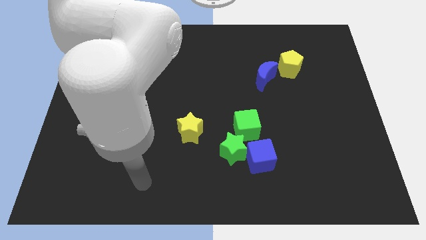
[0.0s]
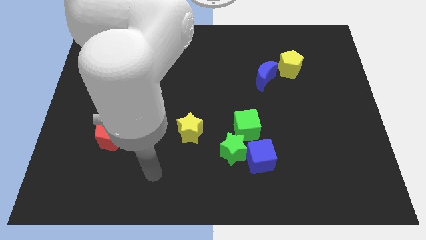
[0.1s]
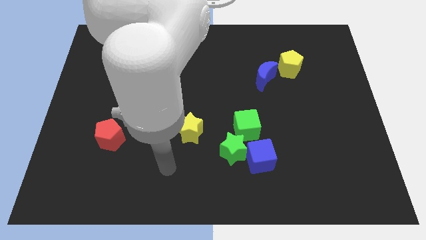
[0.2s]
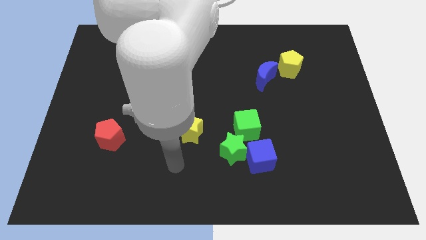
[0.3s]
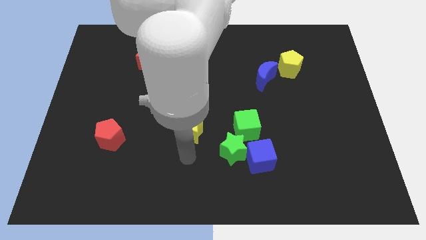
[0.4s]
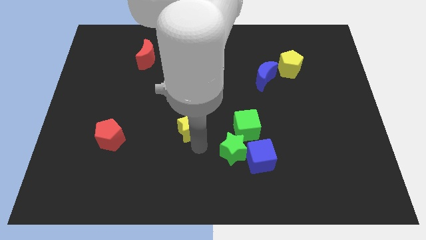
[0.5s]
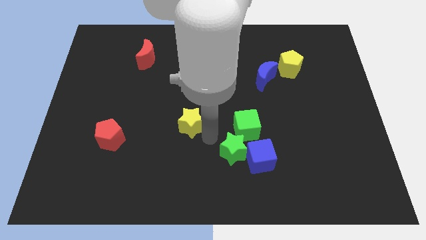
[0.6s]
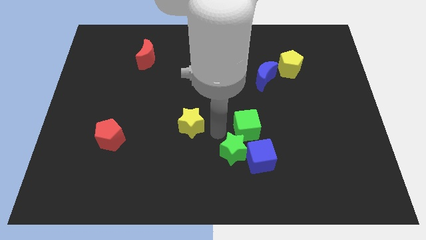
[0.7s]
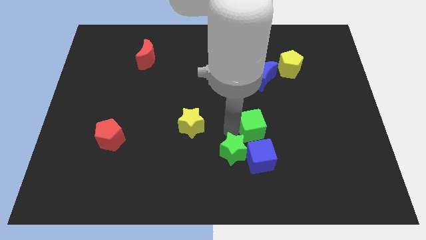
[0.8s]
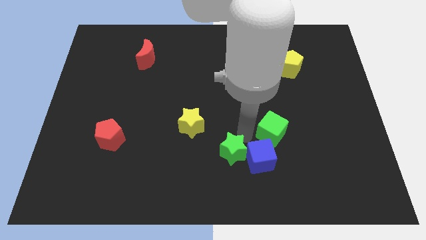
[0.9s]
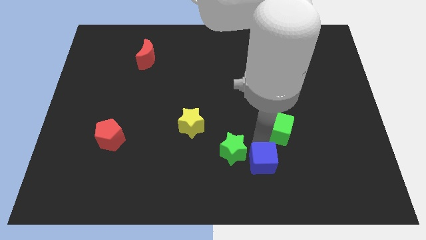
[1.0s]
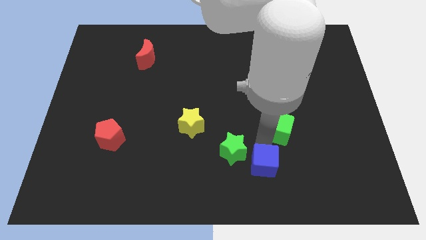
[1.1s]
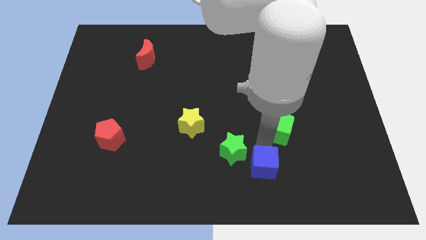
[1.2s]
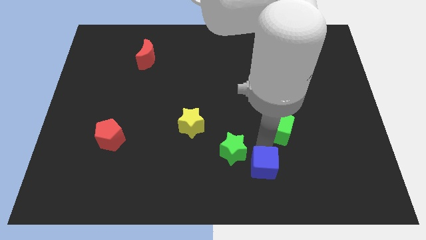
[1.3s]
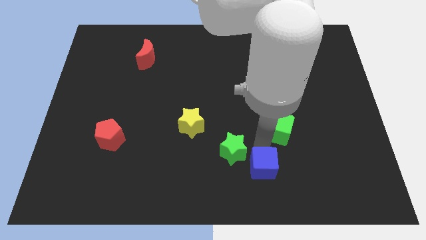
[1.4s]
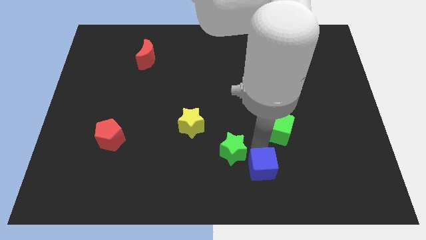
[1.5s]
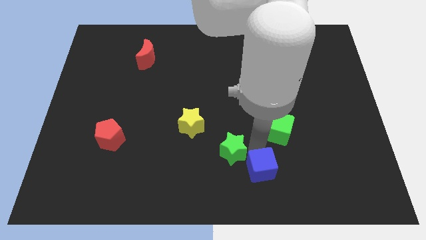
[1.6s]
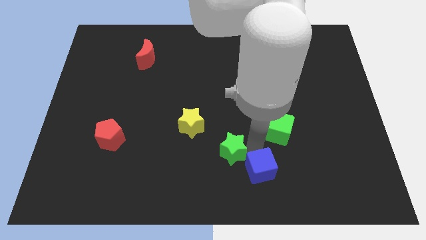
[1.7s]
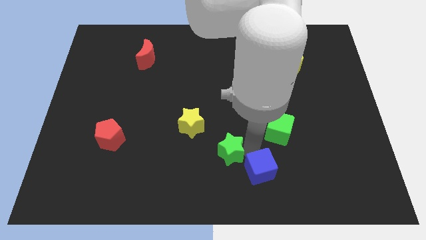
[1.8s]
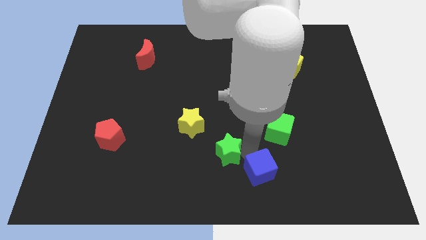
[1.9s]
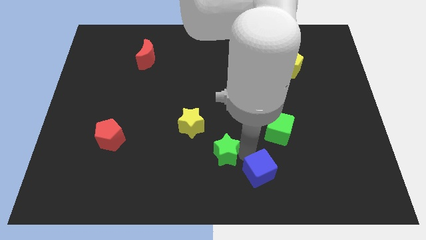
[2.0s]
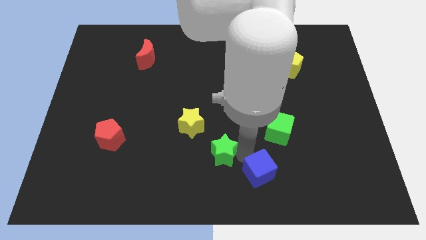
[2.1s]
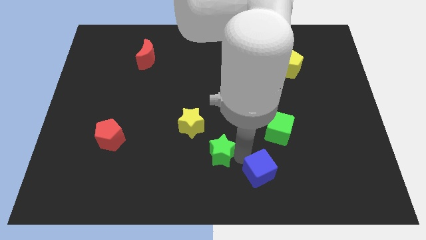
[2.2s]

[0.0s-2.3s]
pull the green star apart from the blue cube and green cube

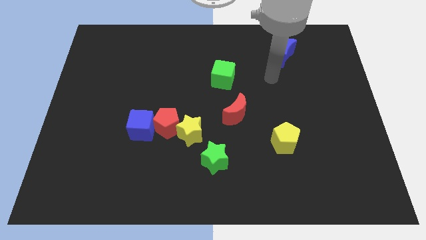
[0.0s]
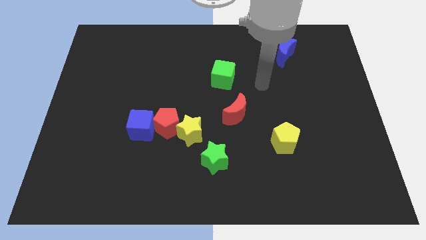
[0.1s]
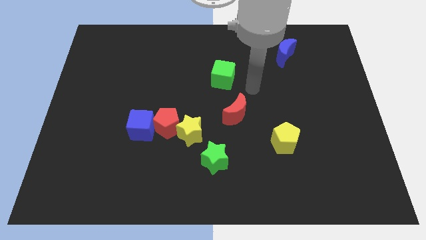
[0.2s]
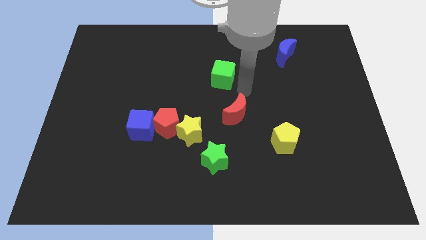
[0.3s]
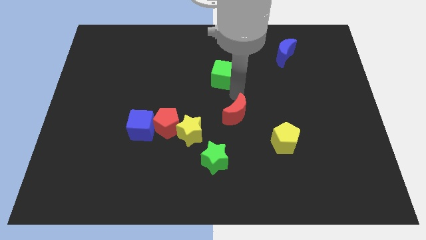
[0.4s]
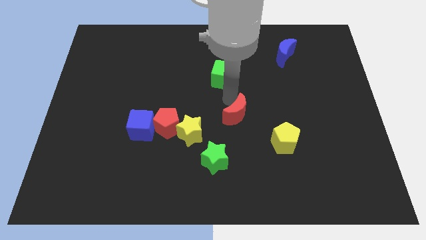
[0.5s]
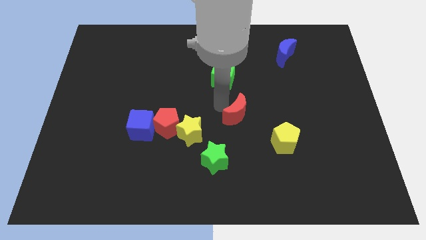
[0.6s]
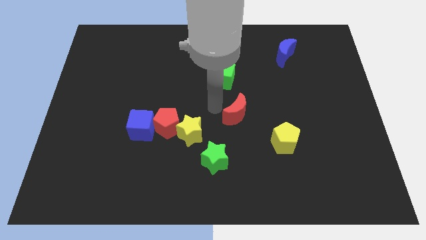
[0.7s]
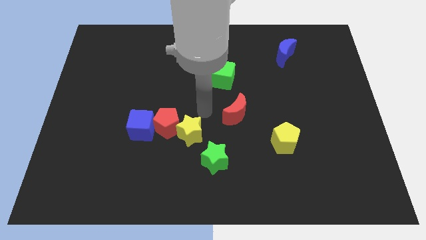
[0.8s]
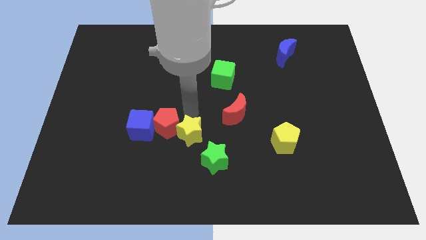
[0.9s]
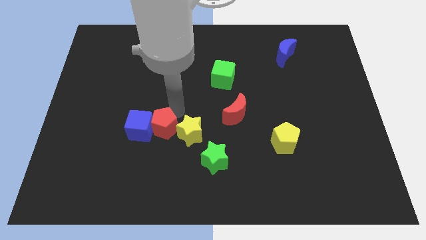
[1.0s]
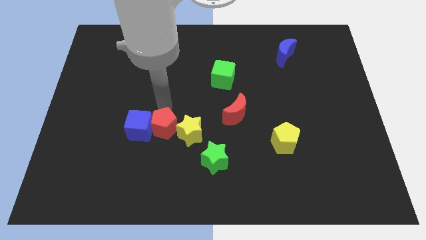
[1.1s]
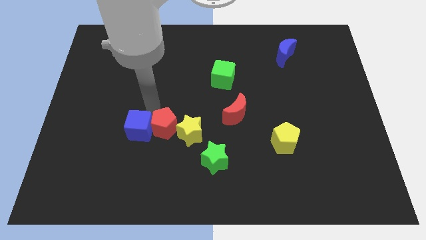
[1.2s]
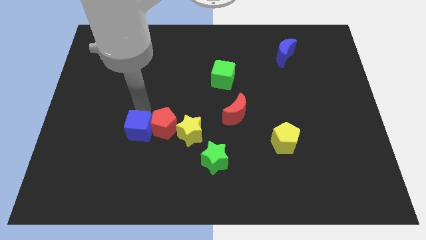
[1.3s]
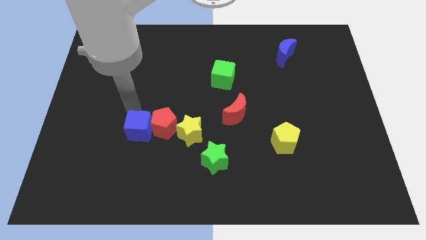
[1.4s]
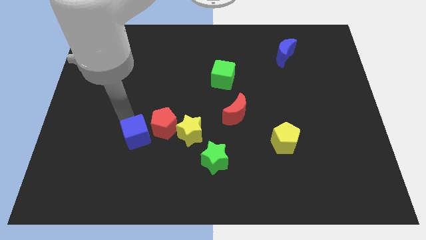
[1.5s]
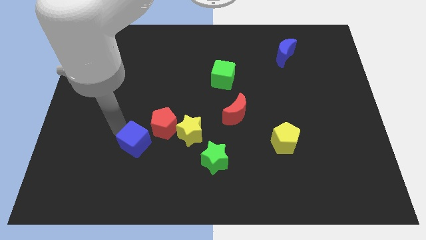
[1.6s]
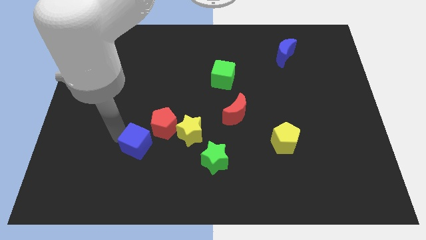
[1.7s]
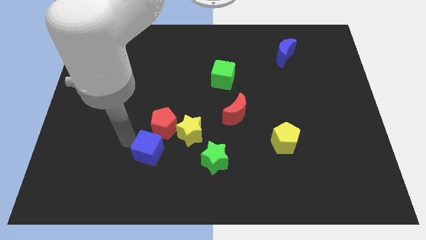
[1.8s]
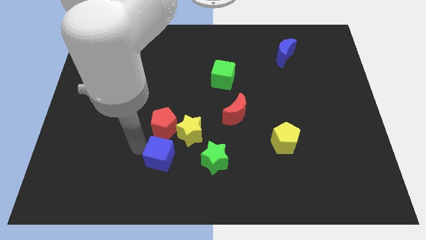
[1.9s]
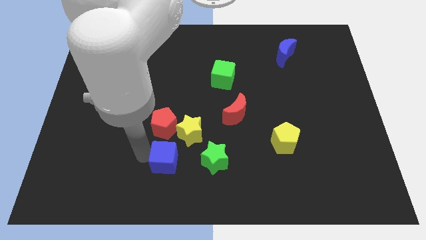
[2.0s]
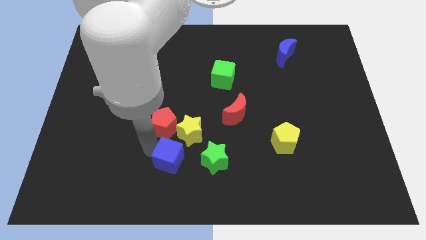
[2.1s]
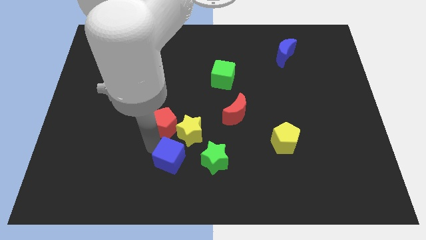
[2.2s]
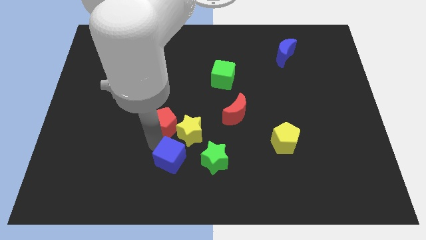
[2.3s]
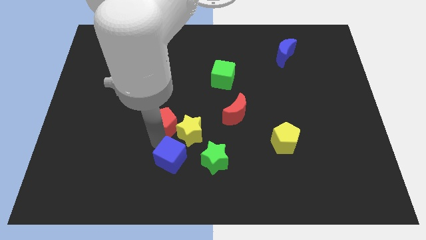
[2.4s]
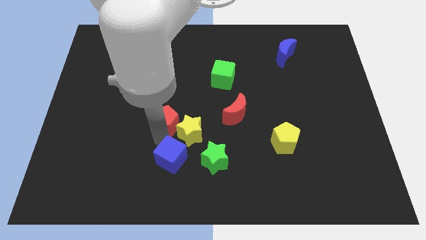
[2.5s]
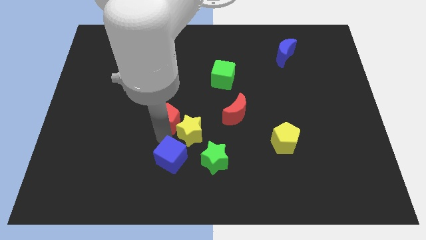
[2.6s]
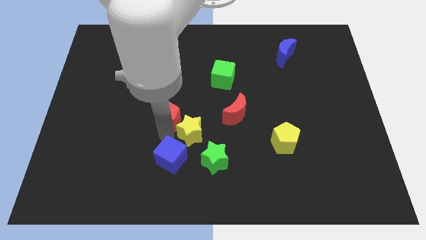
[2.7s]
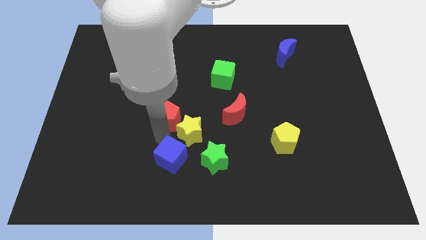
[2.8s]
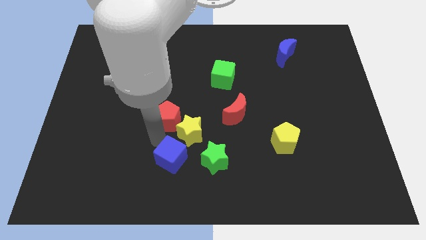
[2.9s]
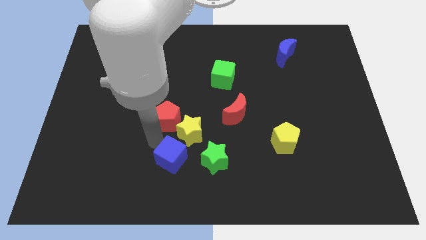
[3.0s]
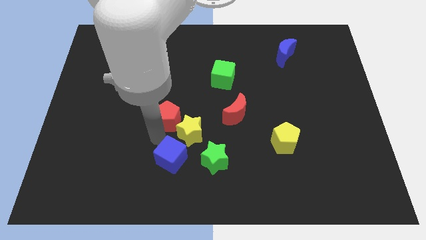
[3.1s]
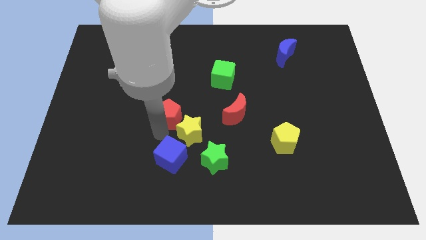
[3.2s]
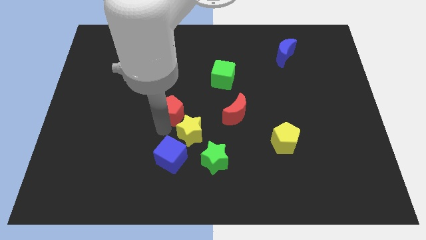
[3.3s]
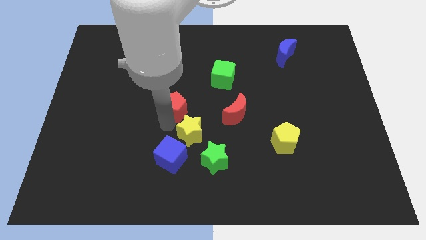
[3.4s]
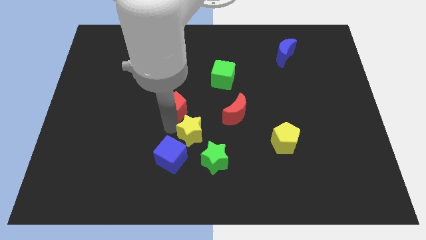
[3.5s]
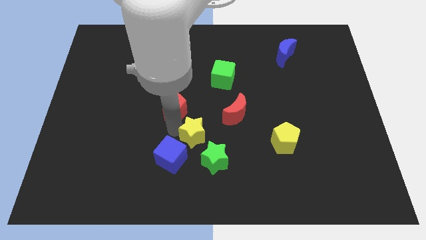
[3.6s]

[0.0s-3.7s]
pull the red pentagon apart from the yellow star and blue cube

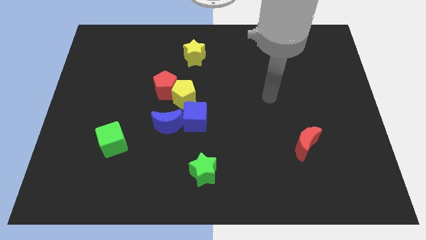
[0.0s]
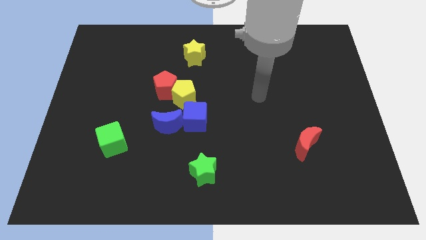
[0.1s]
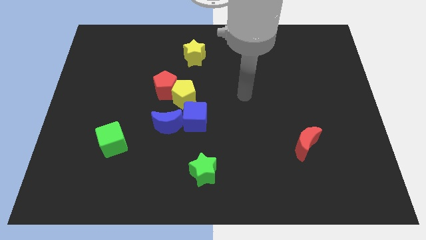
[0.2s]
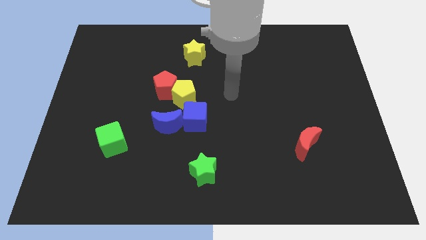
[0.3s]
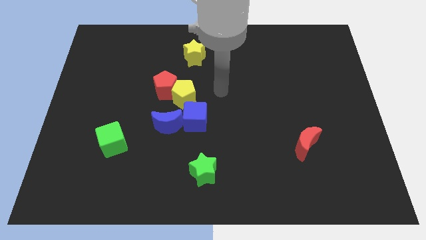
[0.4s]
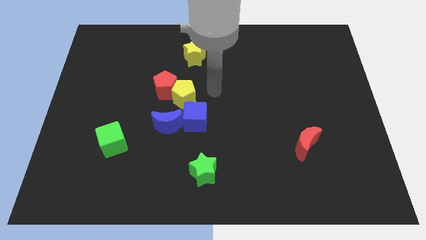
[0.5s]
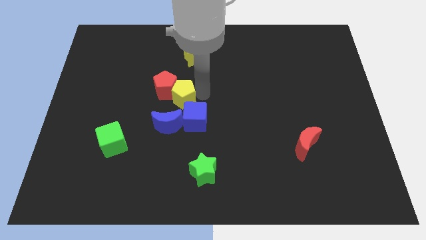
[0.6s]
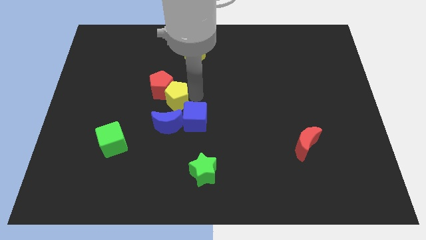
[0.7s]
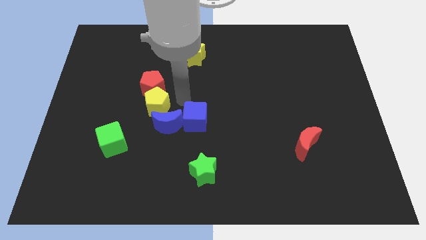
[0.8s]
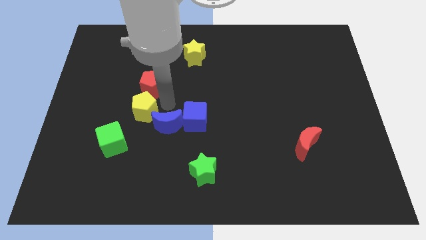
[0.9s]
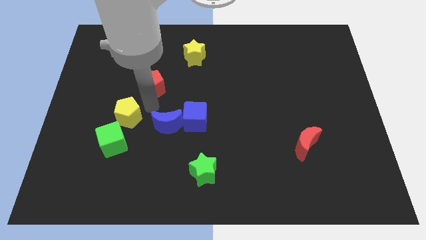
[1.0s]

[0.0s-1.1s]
pull the red pentagon apart from the yellow pentagon

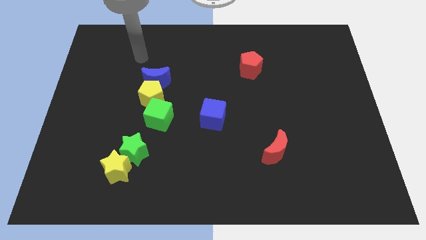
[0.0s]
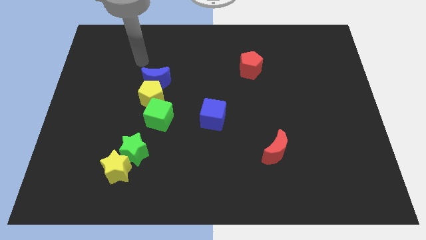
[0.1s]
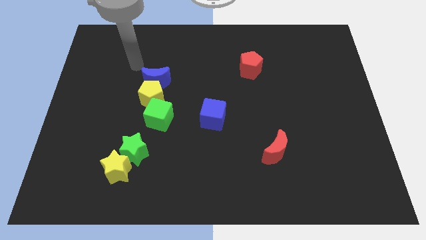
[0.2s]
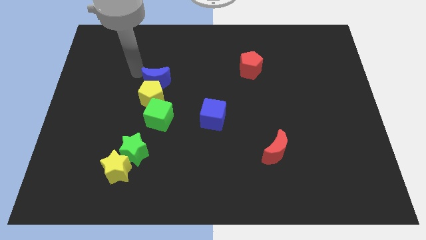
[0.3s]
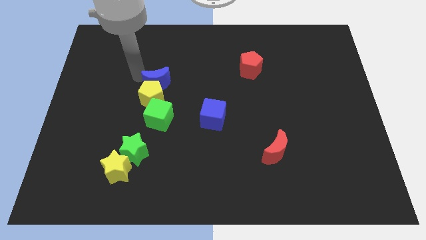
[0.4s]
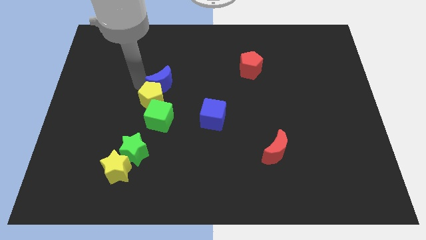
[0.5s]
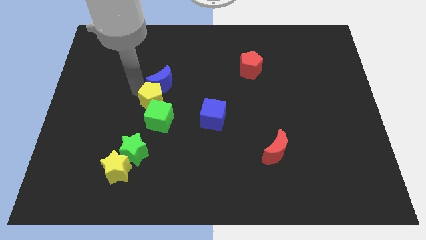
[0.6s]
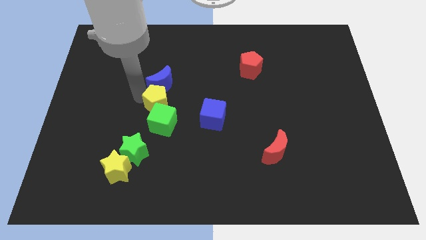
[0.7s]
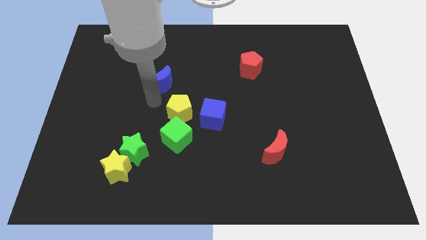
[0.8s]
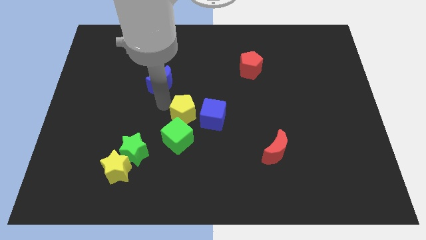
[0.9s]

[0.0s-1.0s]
move the blue moon away from the yellow pentagon

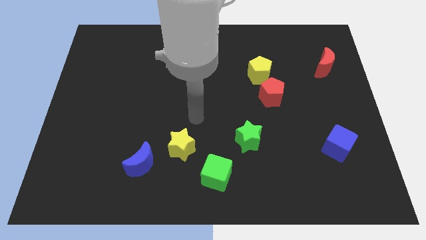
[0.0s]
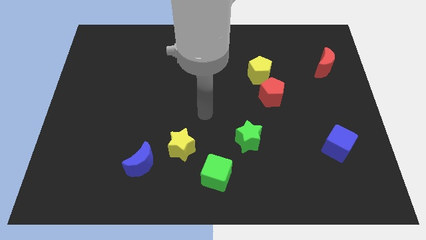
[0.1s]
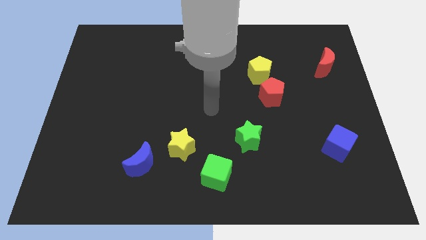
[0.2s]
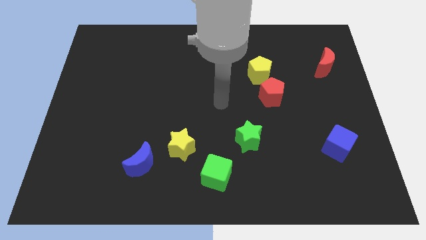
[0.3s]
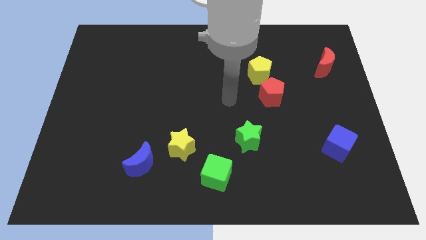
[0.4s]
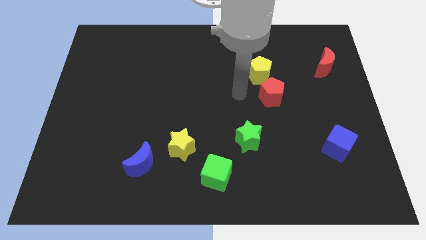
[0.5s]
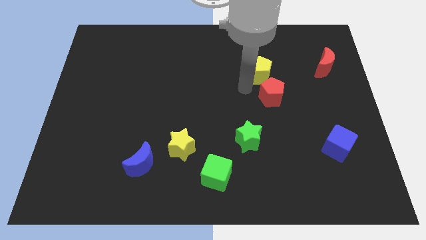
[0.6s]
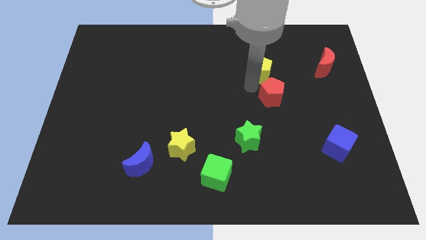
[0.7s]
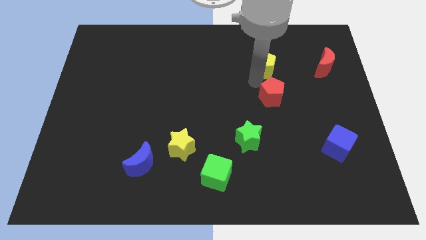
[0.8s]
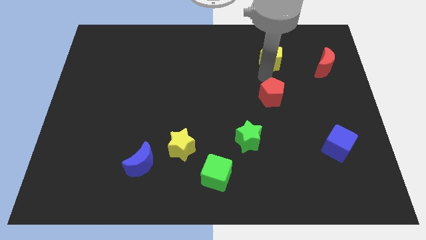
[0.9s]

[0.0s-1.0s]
separate the red pentagon from the yellow pentagon

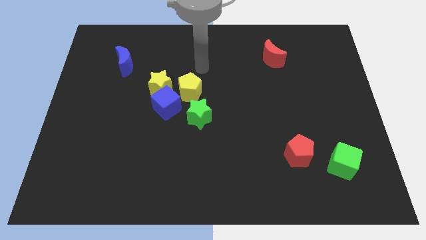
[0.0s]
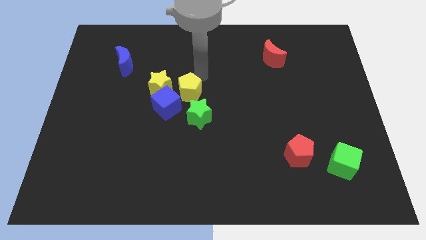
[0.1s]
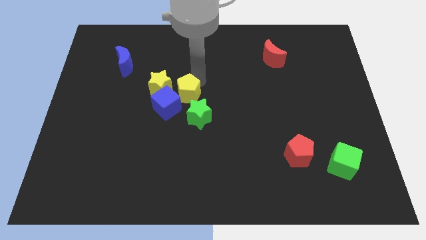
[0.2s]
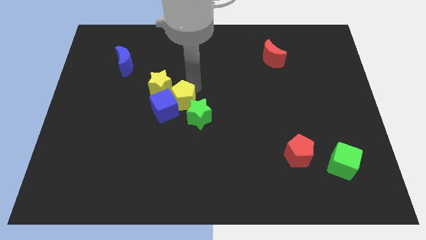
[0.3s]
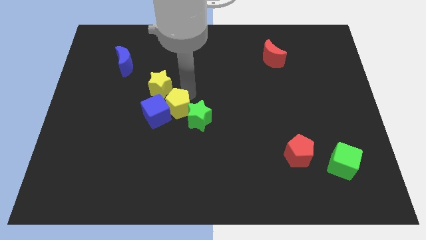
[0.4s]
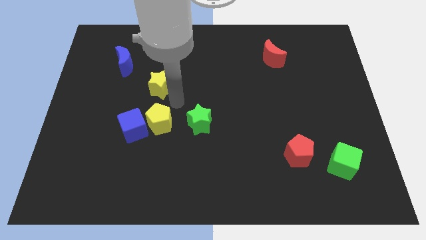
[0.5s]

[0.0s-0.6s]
separate the yellow star from the blue cube and yellow pentagon
